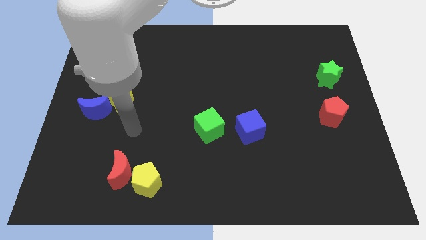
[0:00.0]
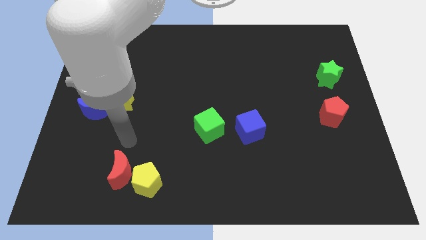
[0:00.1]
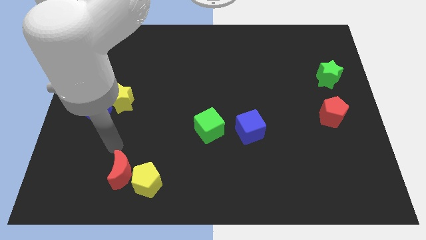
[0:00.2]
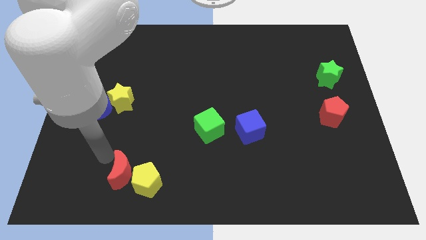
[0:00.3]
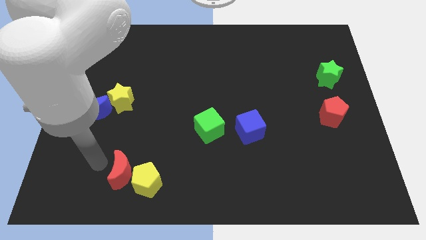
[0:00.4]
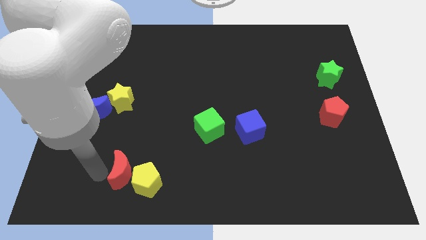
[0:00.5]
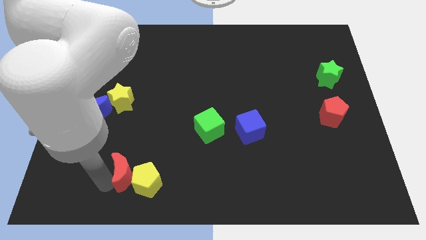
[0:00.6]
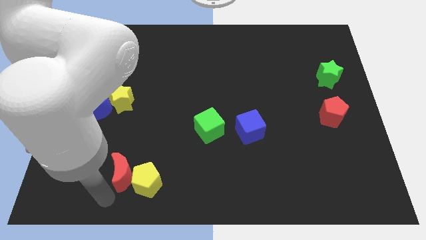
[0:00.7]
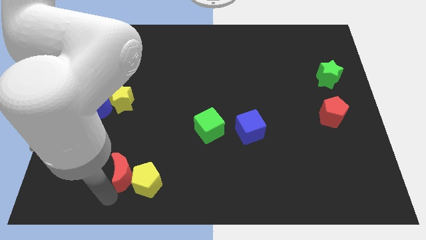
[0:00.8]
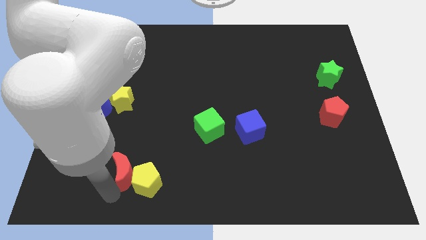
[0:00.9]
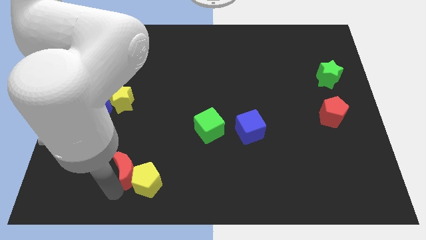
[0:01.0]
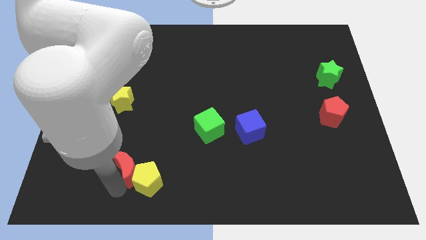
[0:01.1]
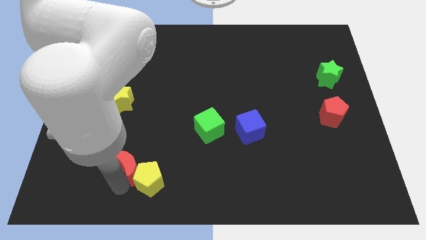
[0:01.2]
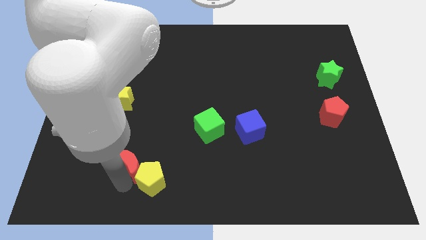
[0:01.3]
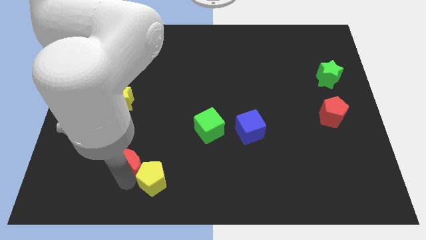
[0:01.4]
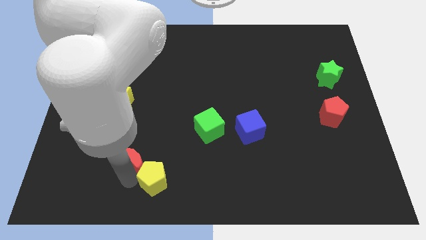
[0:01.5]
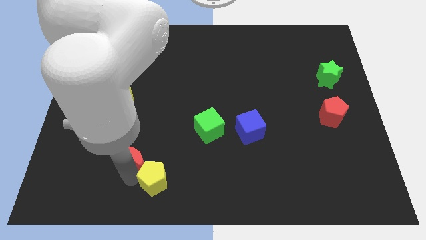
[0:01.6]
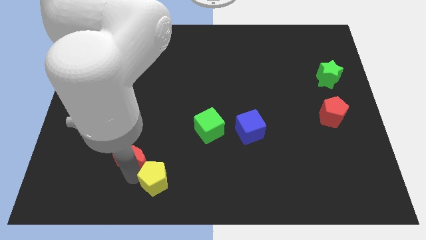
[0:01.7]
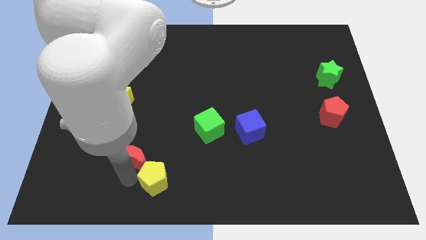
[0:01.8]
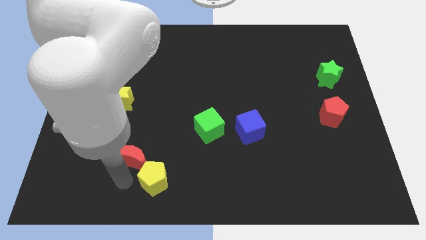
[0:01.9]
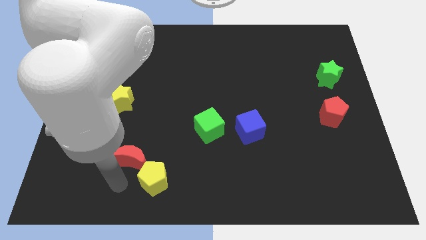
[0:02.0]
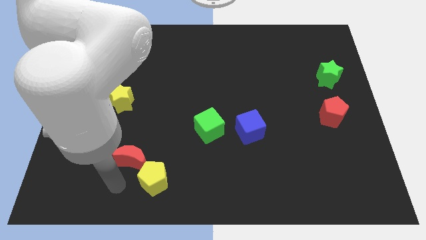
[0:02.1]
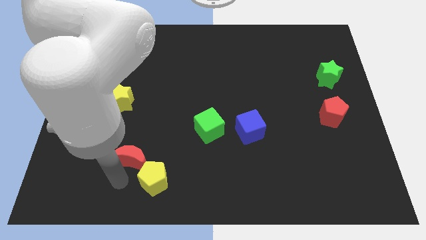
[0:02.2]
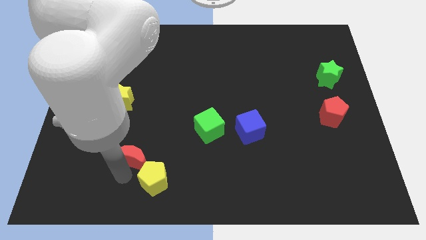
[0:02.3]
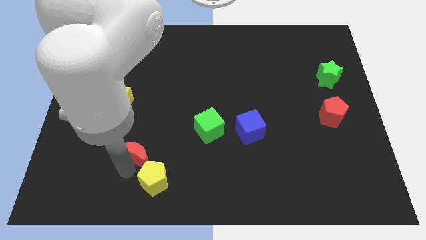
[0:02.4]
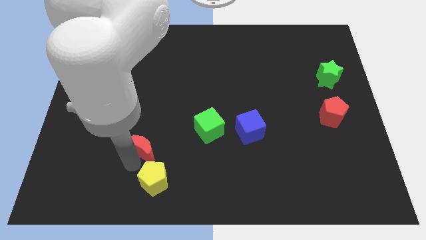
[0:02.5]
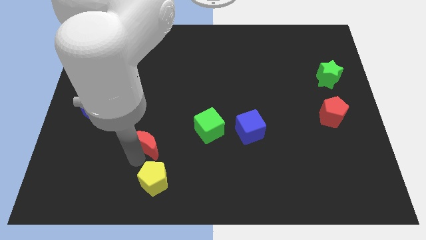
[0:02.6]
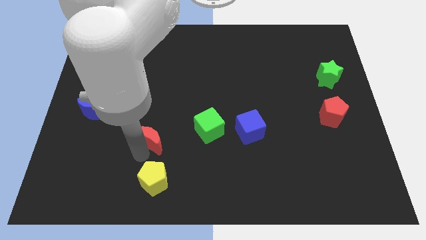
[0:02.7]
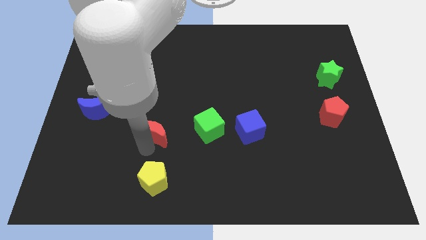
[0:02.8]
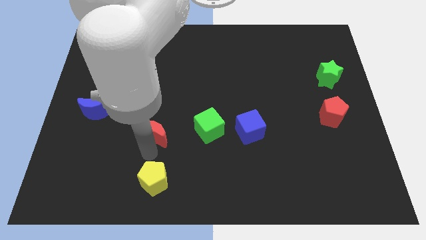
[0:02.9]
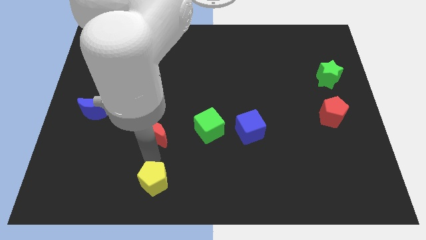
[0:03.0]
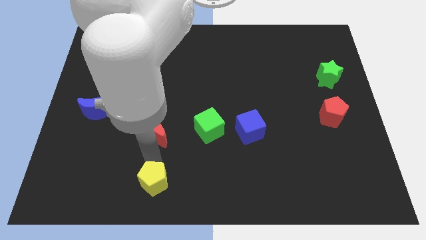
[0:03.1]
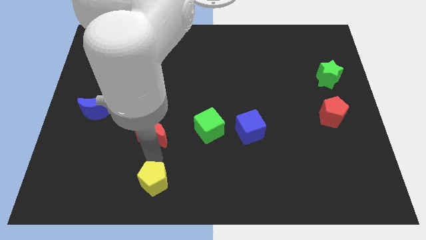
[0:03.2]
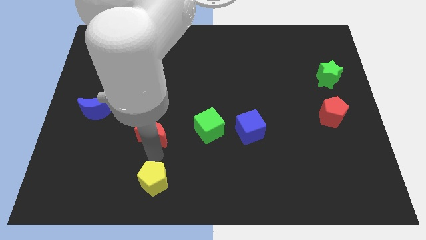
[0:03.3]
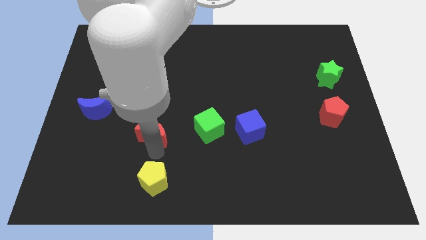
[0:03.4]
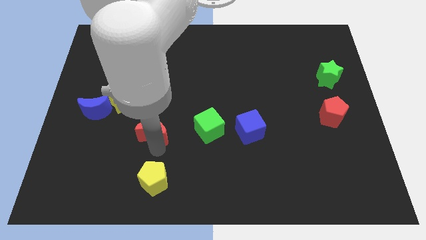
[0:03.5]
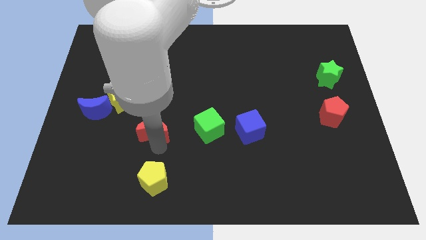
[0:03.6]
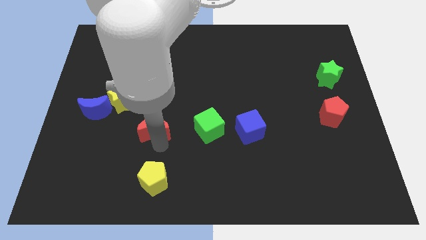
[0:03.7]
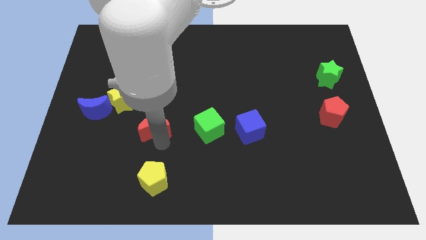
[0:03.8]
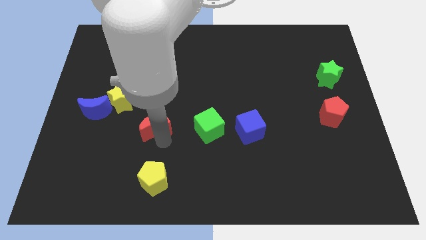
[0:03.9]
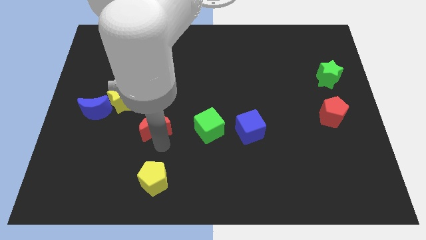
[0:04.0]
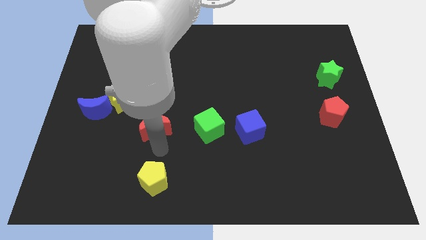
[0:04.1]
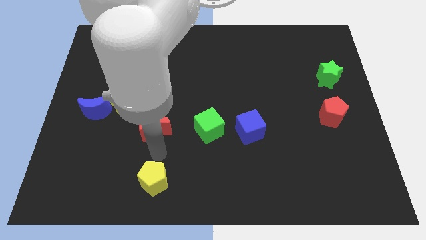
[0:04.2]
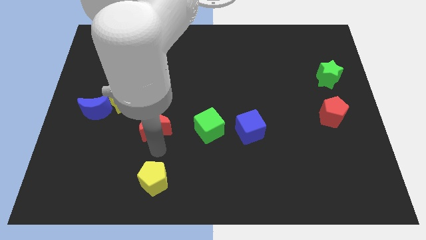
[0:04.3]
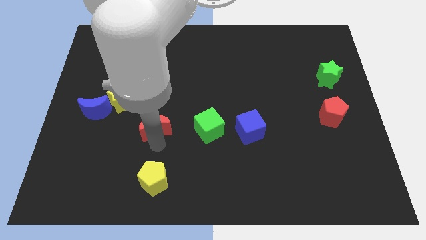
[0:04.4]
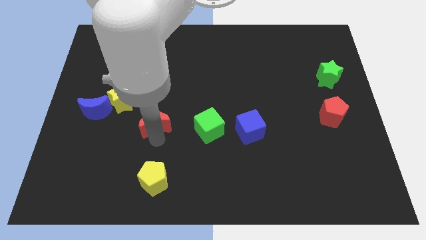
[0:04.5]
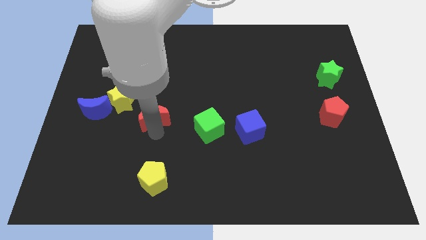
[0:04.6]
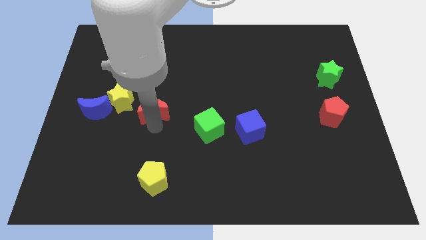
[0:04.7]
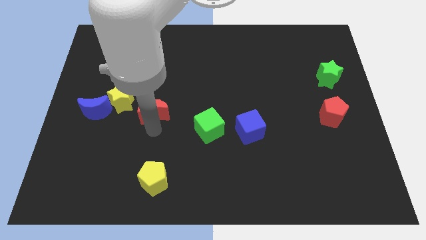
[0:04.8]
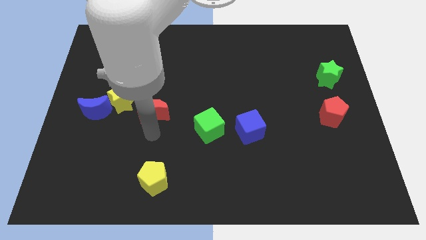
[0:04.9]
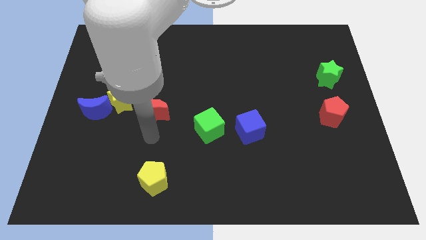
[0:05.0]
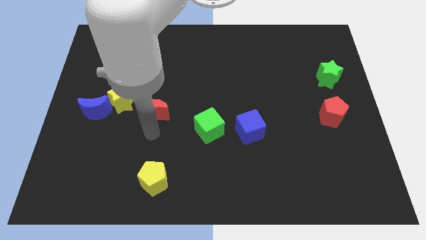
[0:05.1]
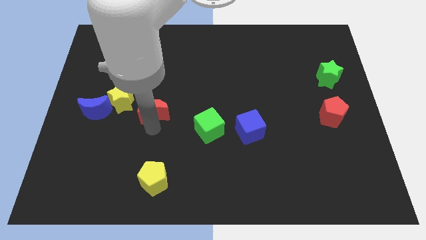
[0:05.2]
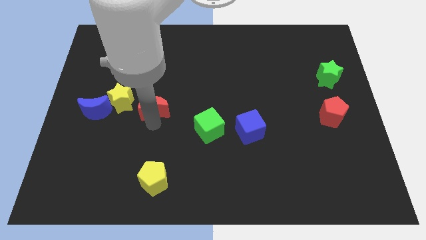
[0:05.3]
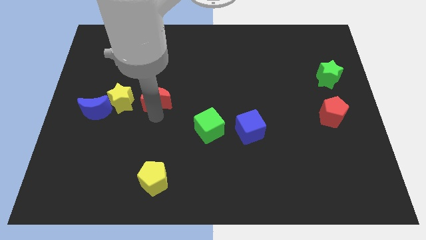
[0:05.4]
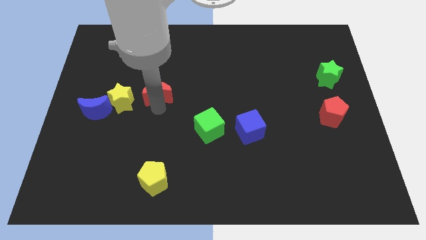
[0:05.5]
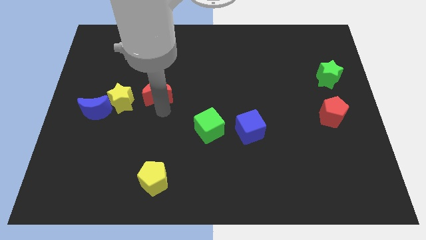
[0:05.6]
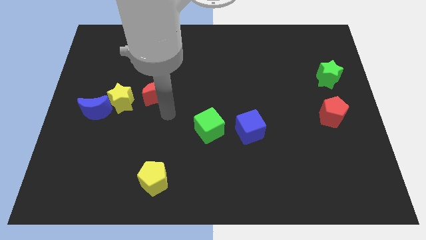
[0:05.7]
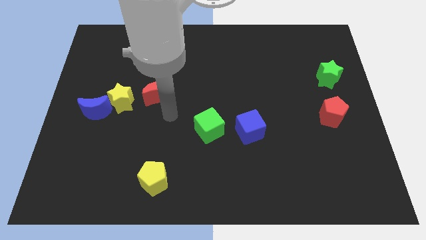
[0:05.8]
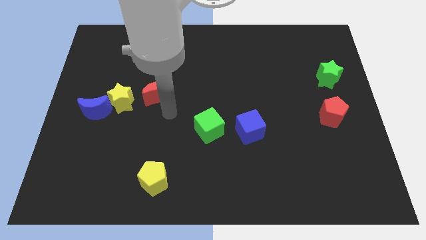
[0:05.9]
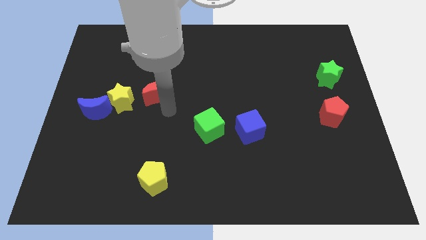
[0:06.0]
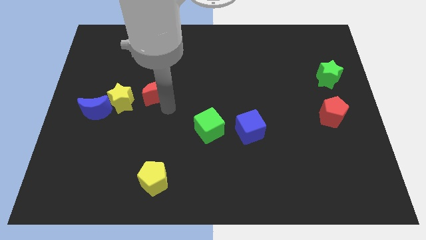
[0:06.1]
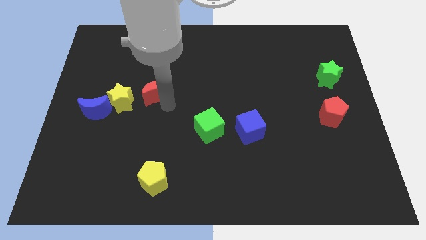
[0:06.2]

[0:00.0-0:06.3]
move the red moon up

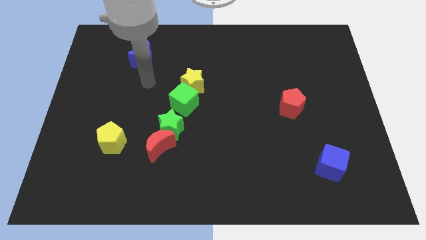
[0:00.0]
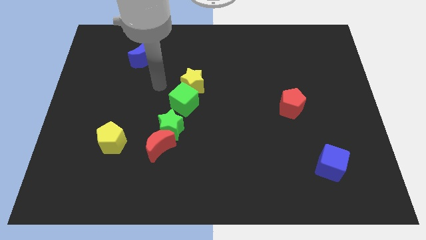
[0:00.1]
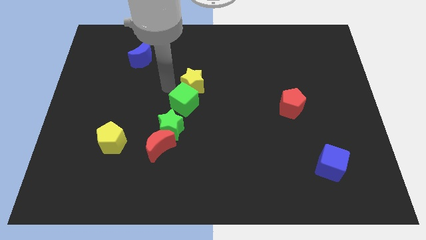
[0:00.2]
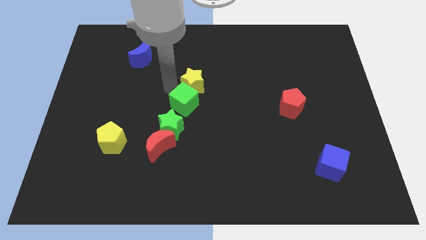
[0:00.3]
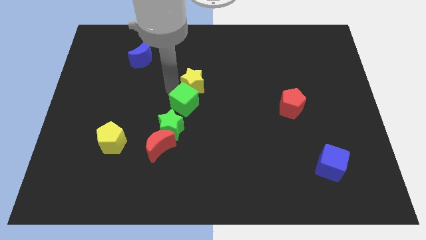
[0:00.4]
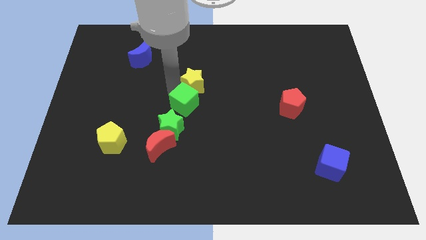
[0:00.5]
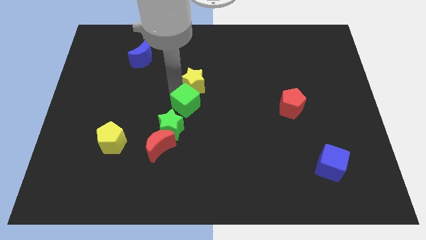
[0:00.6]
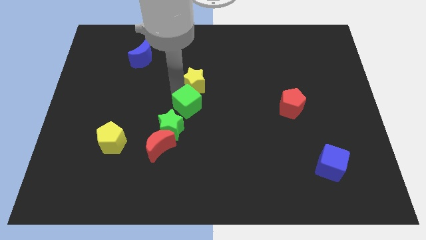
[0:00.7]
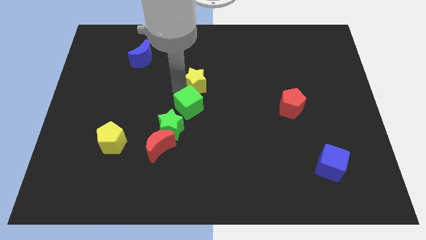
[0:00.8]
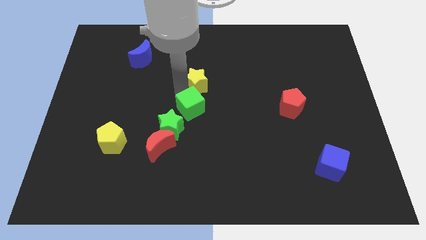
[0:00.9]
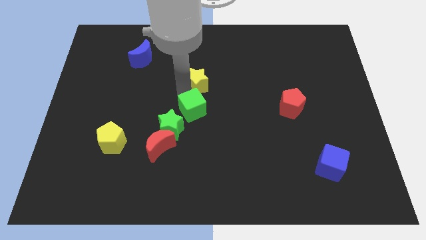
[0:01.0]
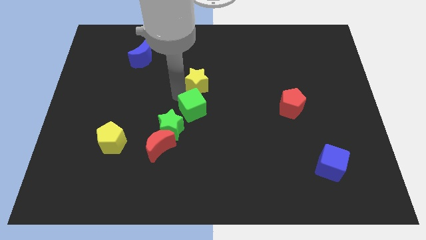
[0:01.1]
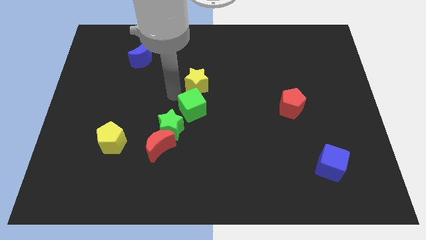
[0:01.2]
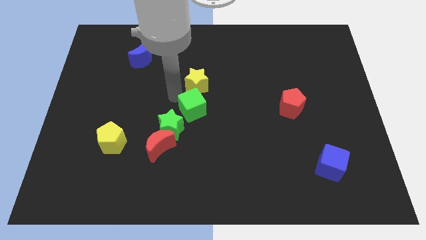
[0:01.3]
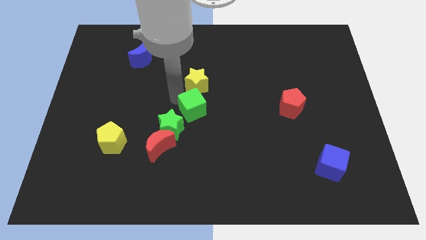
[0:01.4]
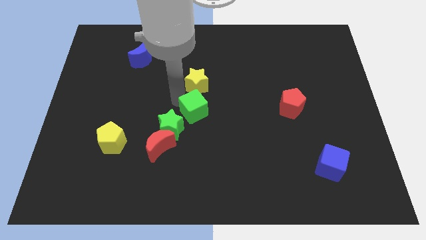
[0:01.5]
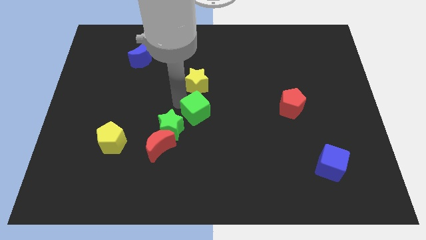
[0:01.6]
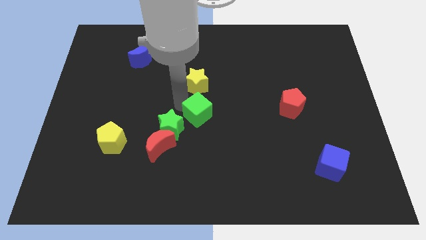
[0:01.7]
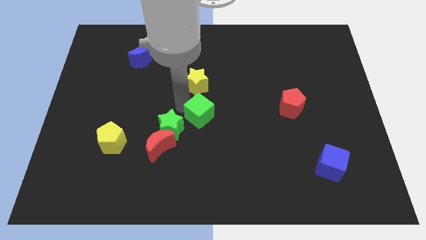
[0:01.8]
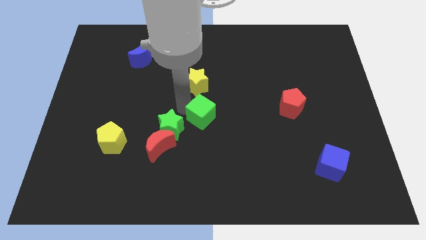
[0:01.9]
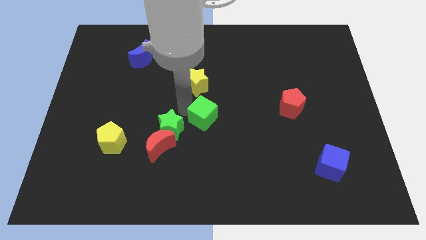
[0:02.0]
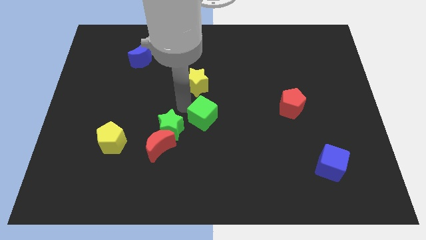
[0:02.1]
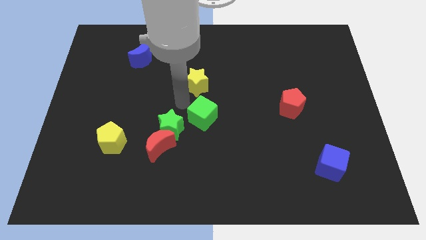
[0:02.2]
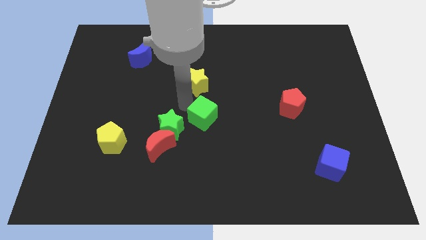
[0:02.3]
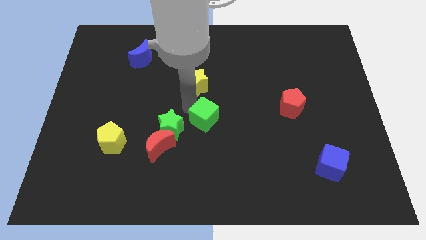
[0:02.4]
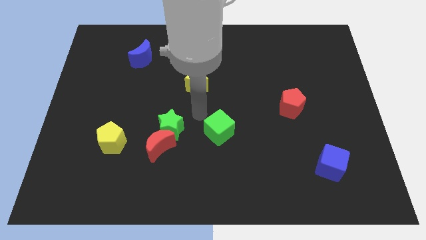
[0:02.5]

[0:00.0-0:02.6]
slide the green cube down and to the right a little
